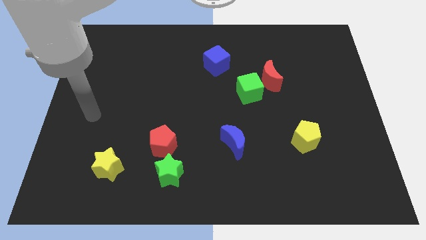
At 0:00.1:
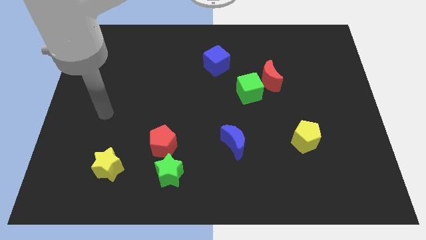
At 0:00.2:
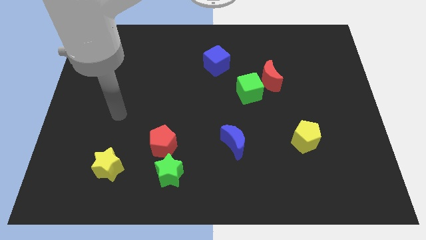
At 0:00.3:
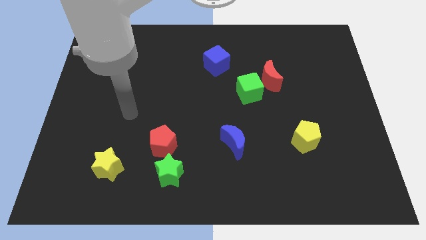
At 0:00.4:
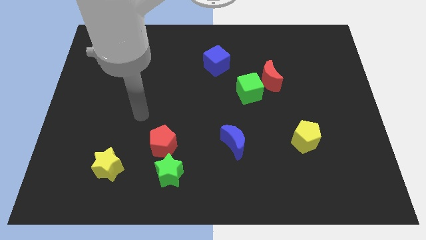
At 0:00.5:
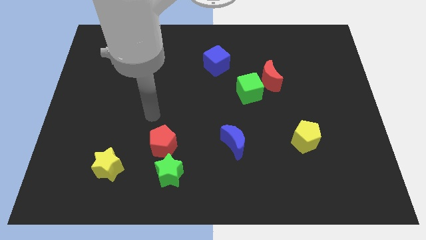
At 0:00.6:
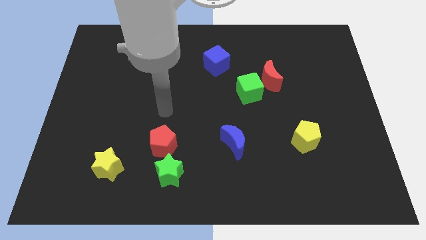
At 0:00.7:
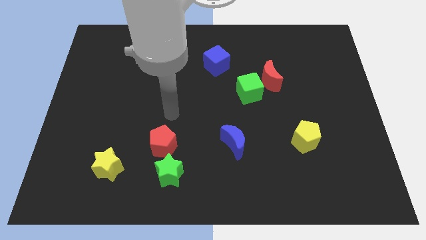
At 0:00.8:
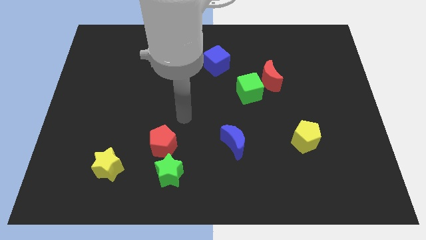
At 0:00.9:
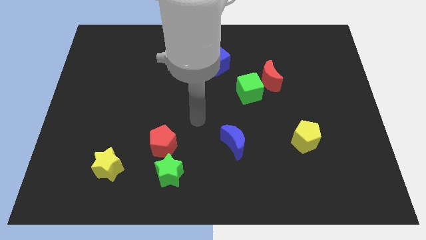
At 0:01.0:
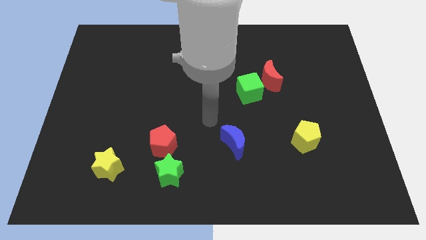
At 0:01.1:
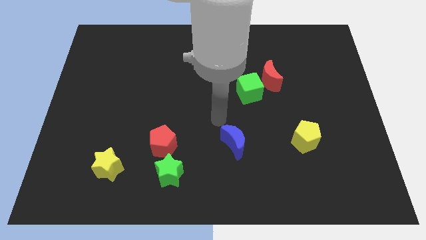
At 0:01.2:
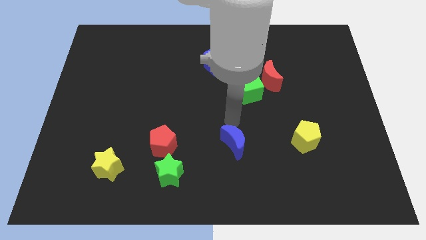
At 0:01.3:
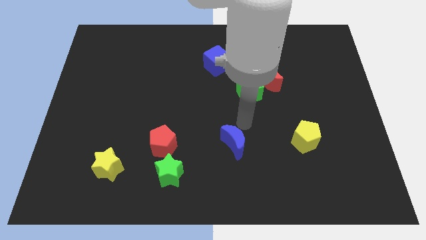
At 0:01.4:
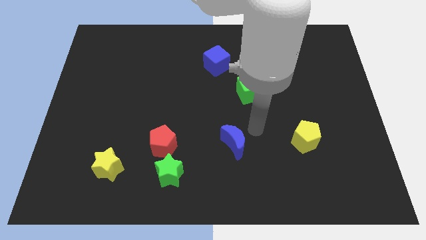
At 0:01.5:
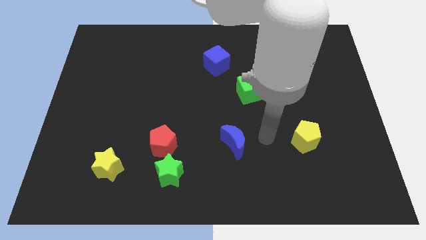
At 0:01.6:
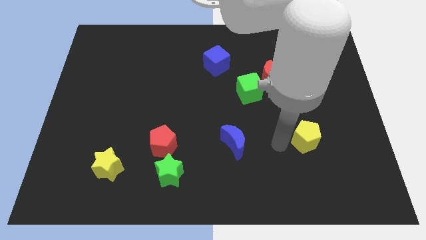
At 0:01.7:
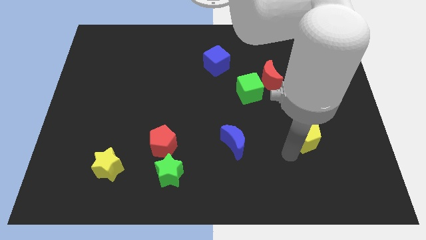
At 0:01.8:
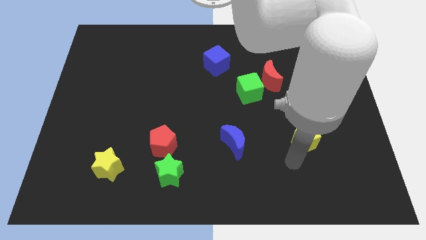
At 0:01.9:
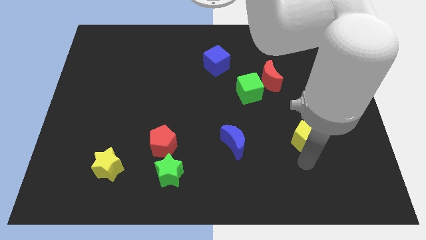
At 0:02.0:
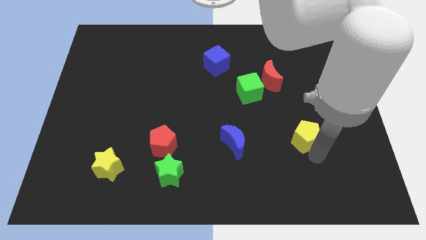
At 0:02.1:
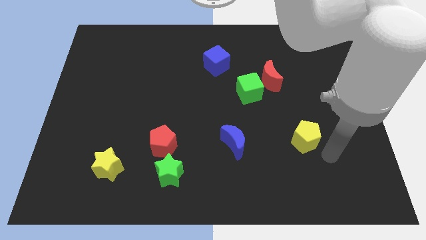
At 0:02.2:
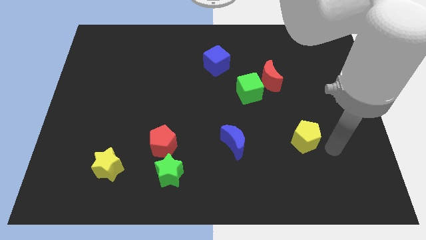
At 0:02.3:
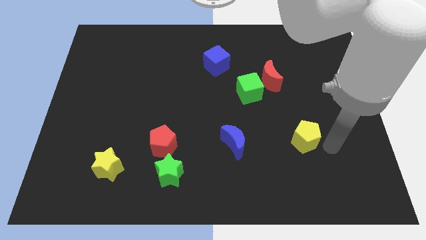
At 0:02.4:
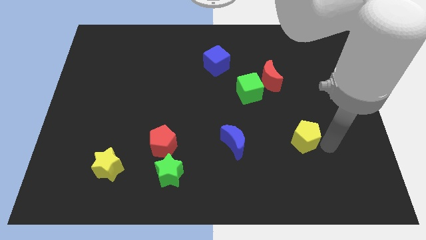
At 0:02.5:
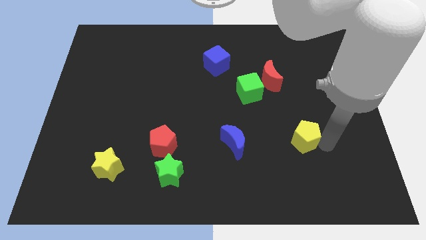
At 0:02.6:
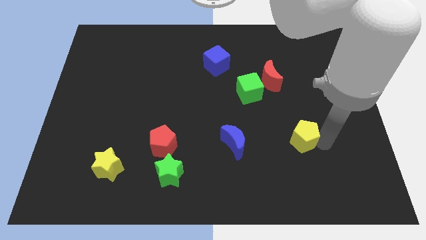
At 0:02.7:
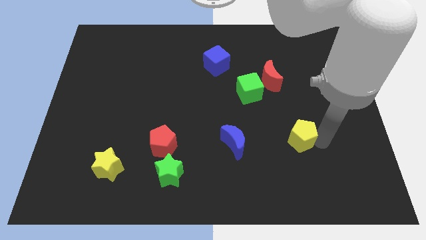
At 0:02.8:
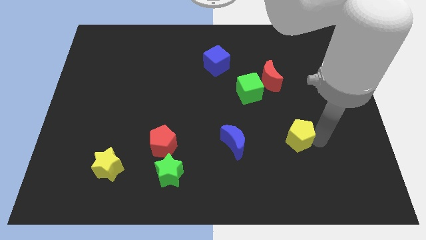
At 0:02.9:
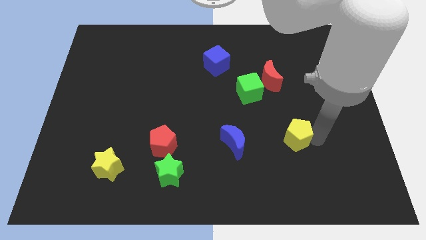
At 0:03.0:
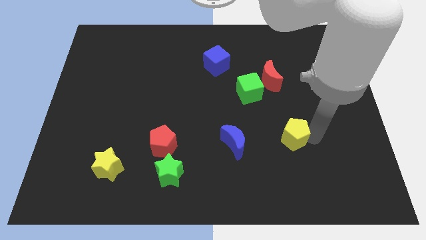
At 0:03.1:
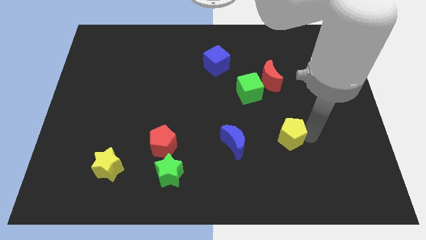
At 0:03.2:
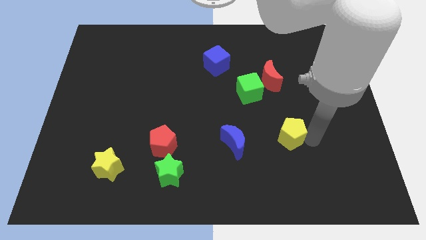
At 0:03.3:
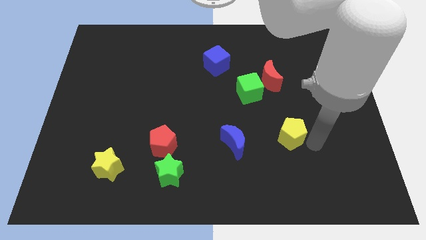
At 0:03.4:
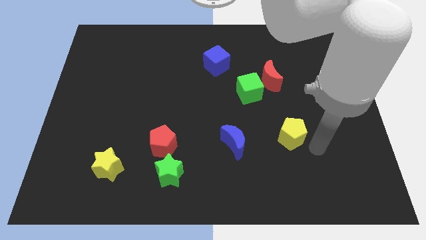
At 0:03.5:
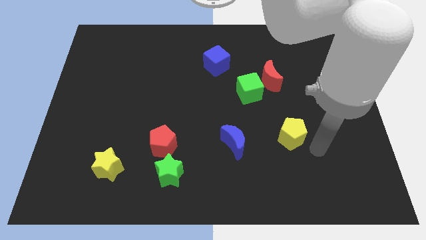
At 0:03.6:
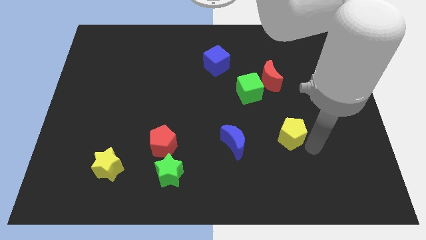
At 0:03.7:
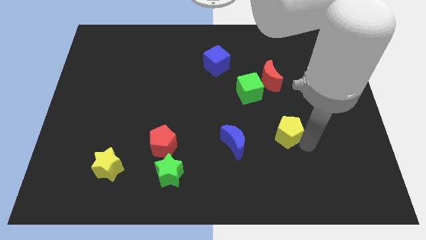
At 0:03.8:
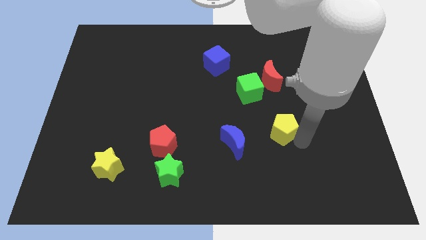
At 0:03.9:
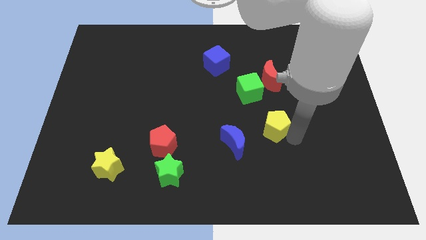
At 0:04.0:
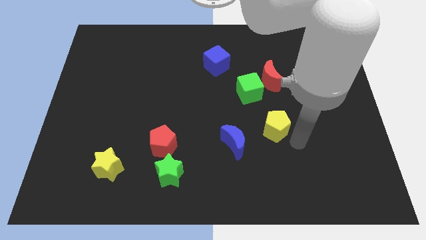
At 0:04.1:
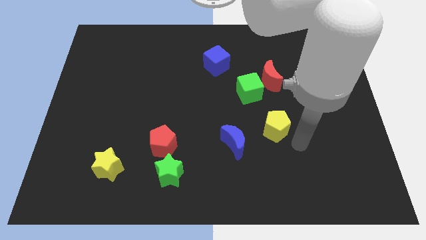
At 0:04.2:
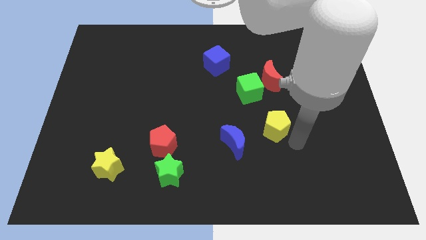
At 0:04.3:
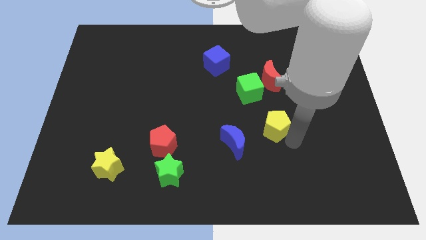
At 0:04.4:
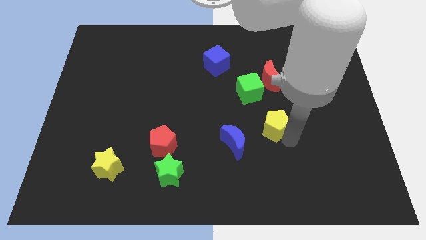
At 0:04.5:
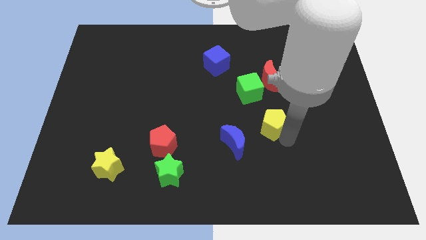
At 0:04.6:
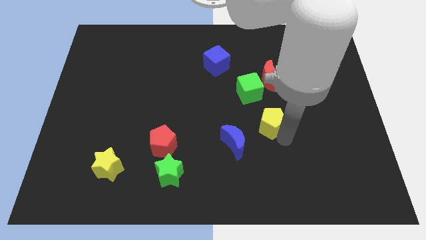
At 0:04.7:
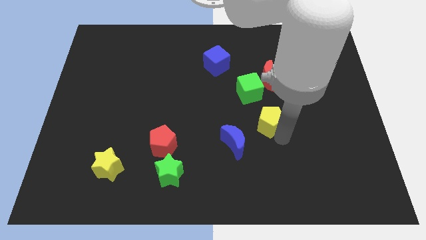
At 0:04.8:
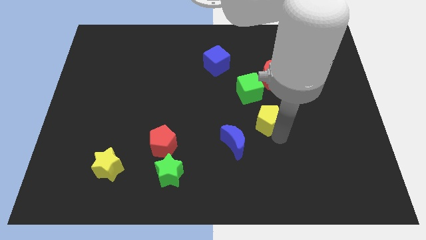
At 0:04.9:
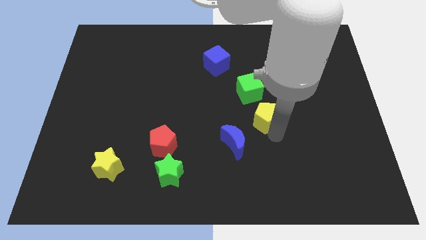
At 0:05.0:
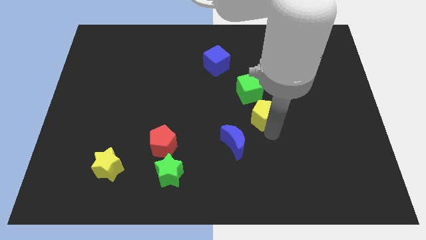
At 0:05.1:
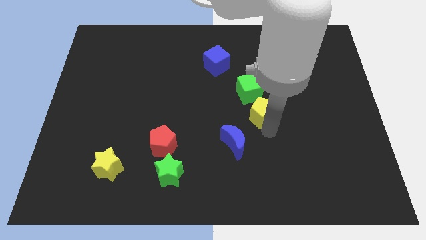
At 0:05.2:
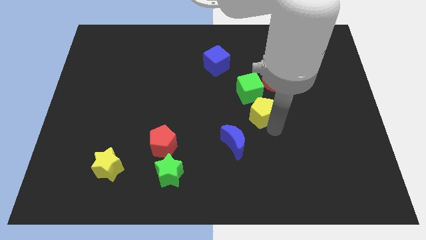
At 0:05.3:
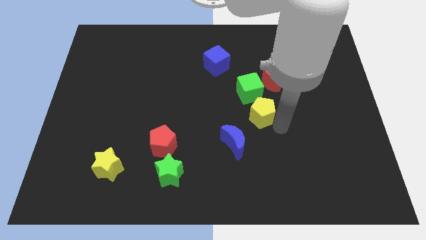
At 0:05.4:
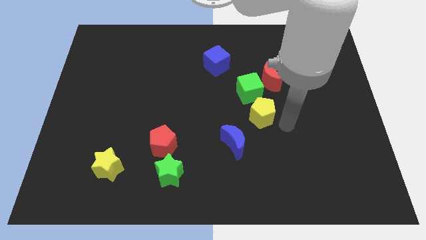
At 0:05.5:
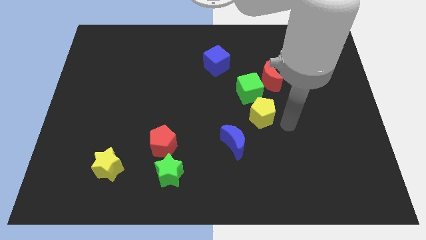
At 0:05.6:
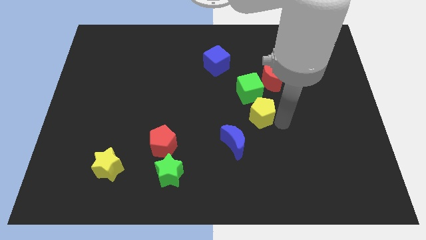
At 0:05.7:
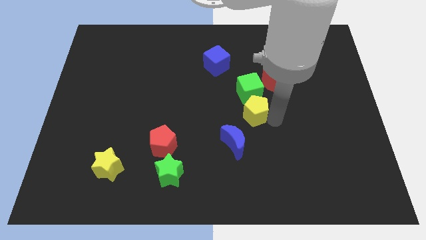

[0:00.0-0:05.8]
move the yellow pentagon above the blue moon
